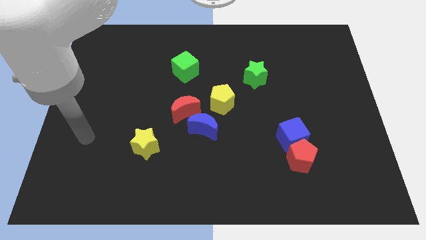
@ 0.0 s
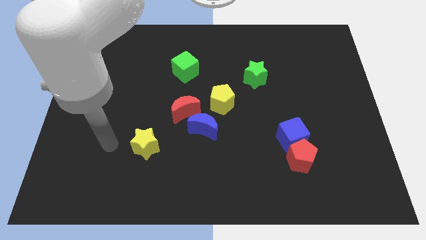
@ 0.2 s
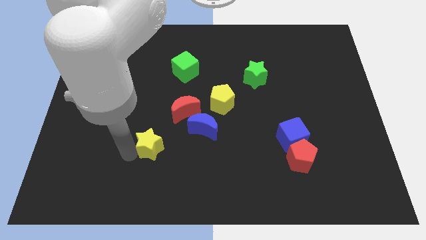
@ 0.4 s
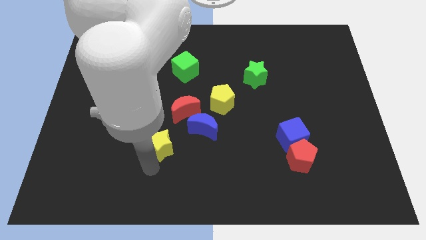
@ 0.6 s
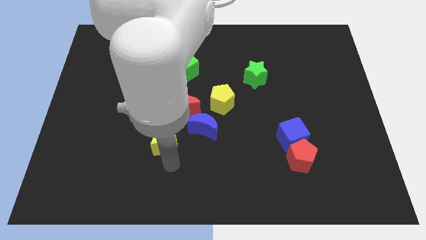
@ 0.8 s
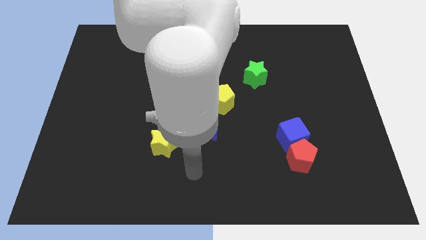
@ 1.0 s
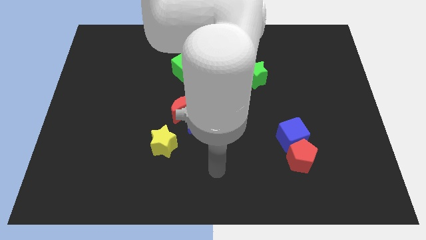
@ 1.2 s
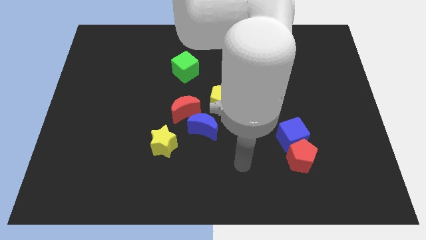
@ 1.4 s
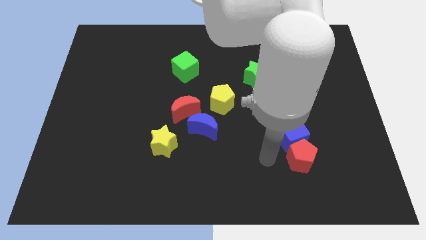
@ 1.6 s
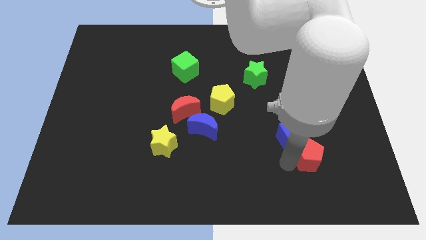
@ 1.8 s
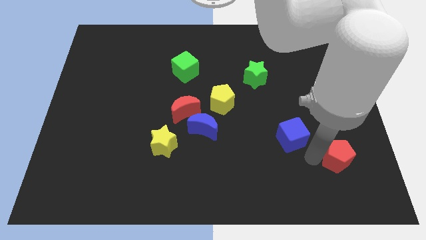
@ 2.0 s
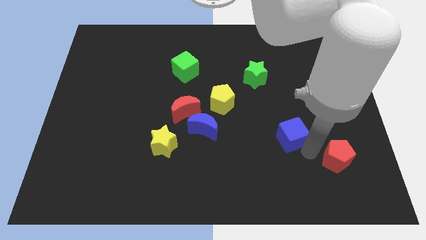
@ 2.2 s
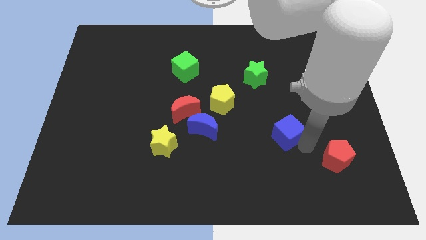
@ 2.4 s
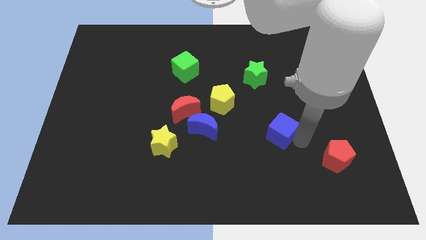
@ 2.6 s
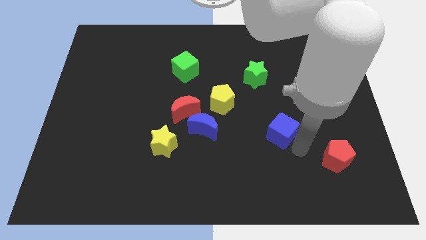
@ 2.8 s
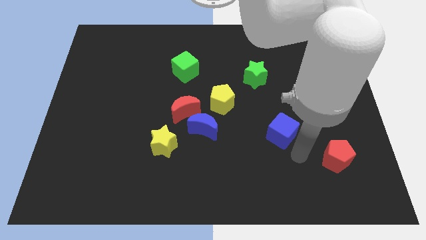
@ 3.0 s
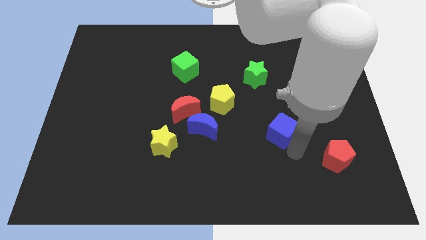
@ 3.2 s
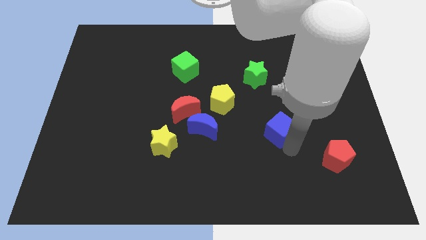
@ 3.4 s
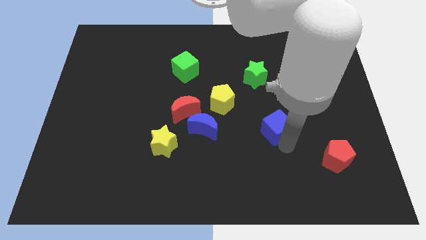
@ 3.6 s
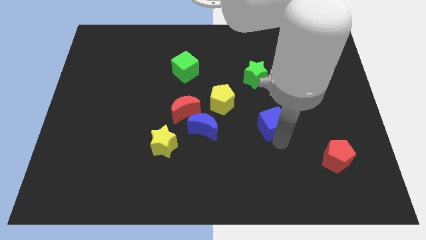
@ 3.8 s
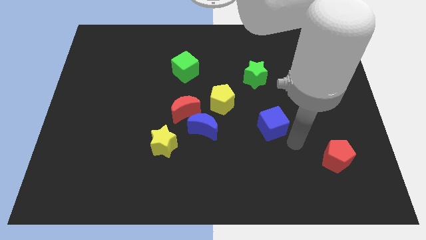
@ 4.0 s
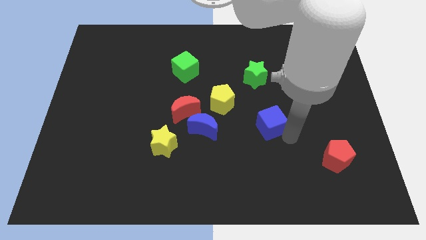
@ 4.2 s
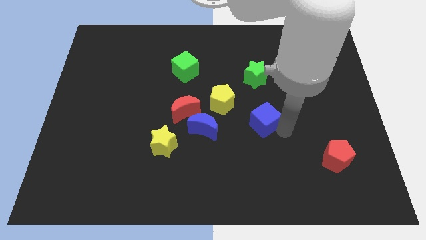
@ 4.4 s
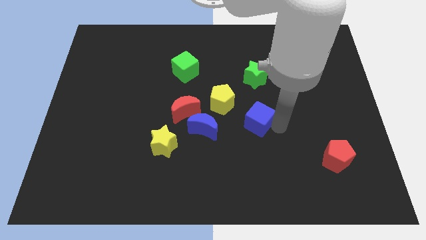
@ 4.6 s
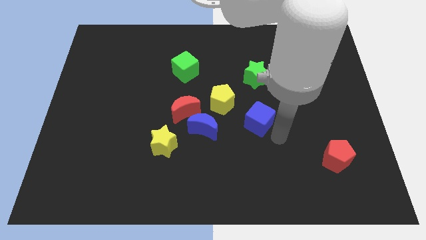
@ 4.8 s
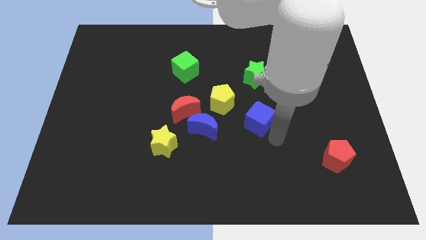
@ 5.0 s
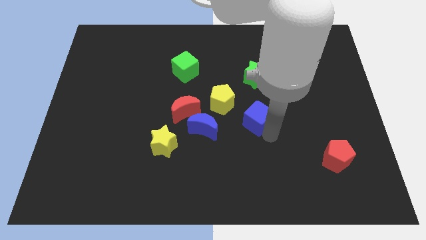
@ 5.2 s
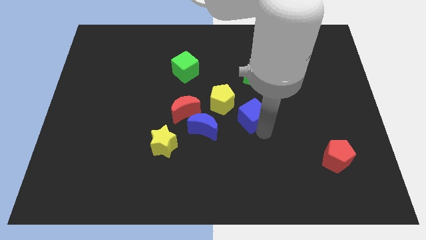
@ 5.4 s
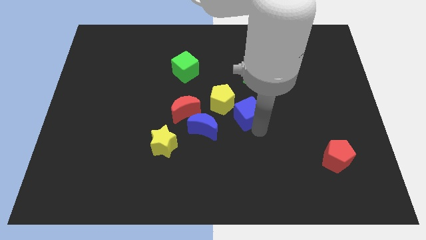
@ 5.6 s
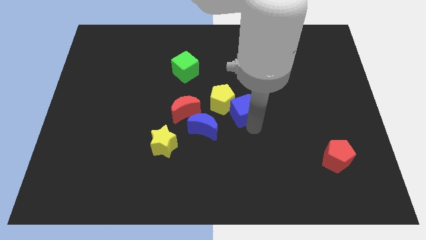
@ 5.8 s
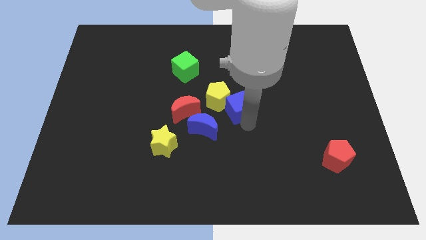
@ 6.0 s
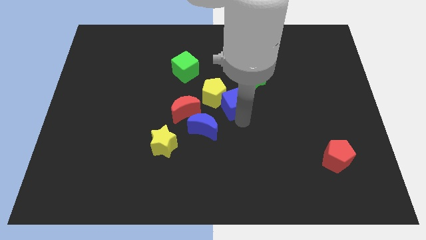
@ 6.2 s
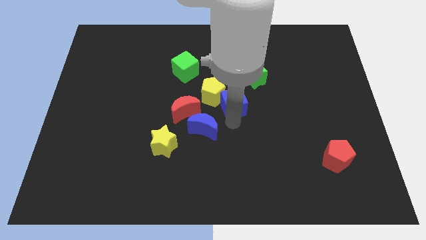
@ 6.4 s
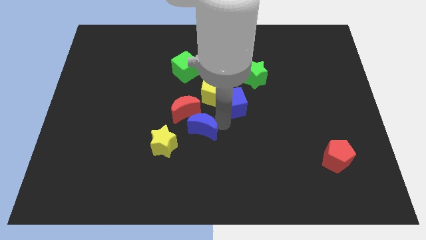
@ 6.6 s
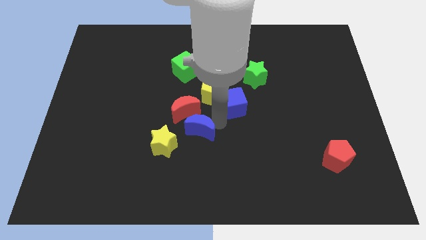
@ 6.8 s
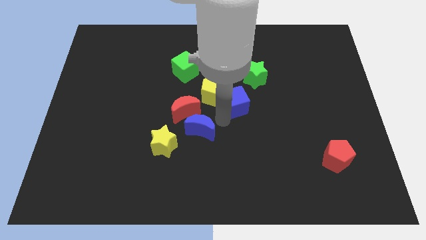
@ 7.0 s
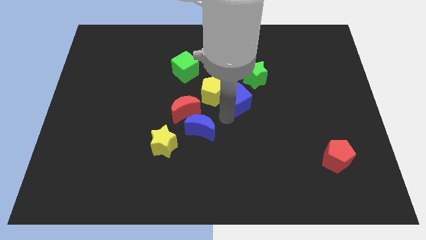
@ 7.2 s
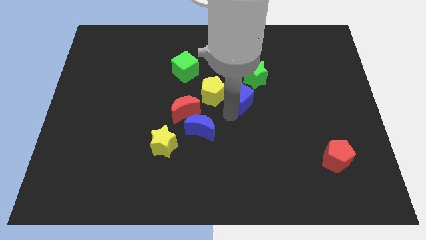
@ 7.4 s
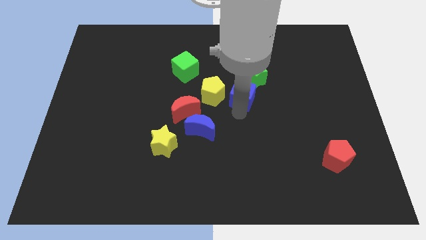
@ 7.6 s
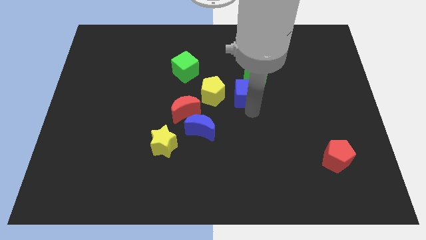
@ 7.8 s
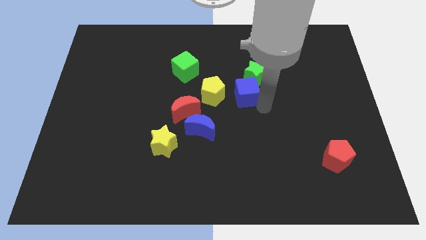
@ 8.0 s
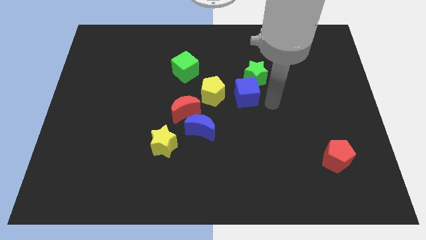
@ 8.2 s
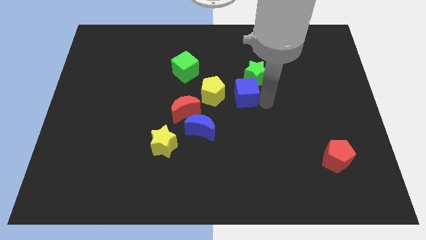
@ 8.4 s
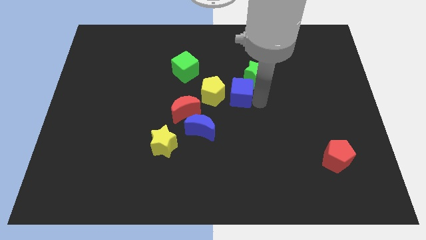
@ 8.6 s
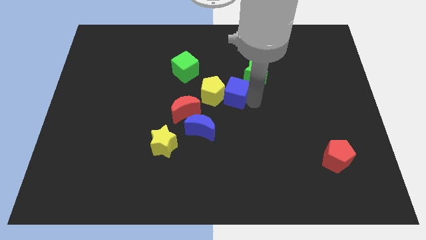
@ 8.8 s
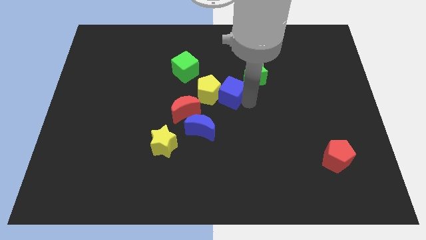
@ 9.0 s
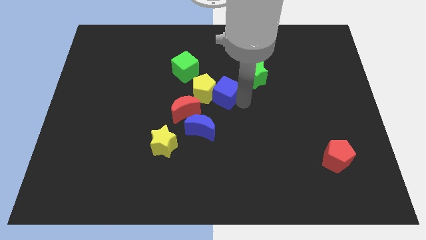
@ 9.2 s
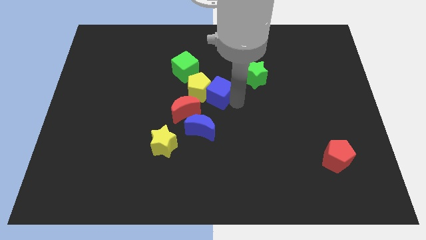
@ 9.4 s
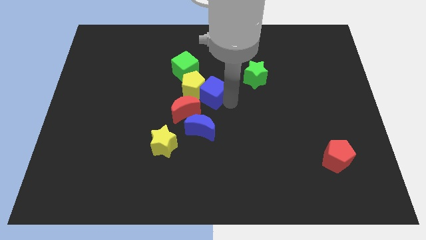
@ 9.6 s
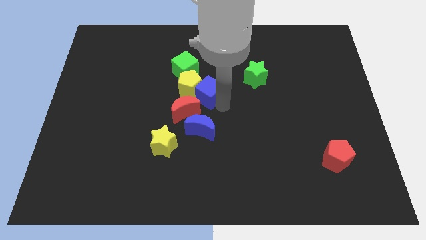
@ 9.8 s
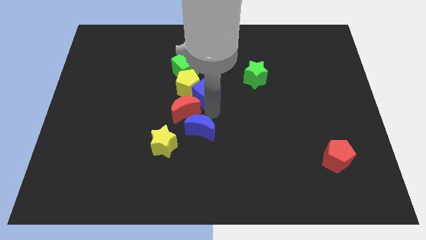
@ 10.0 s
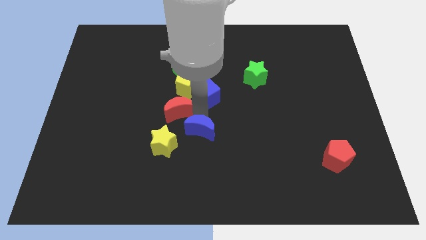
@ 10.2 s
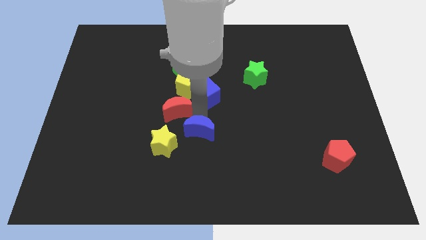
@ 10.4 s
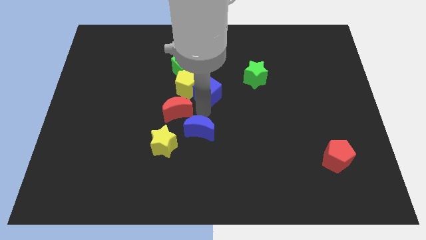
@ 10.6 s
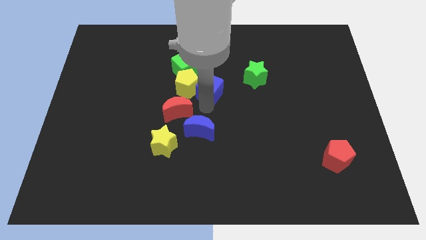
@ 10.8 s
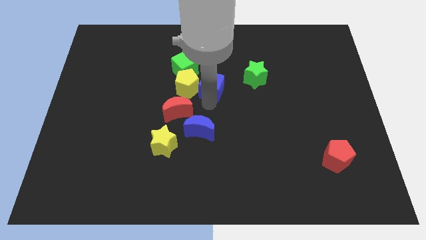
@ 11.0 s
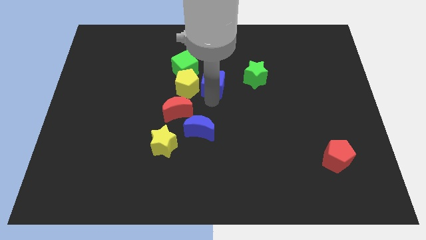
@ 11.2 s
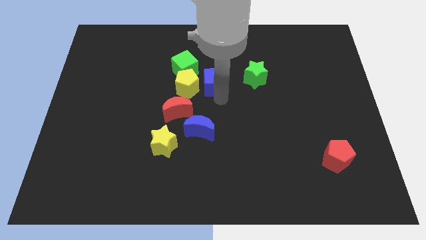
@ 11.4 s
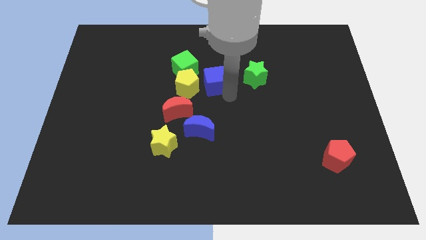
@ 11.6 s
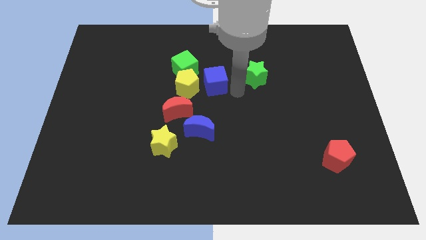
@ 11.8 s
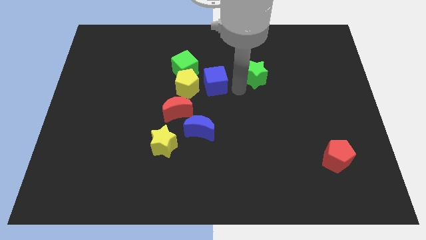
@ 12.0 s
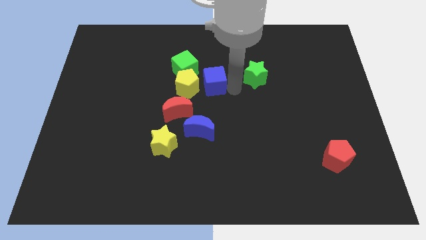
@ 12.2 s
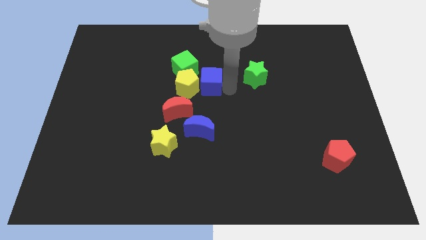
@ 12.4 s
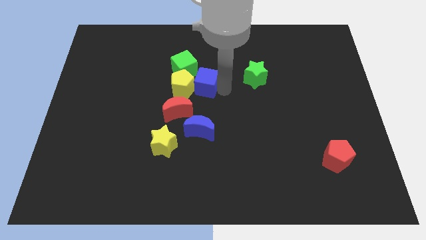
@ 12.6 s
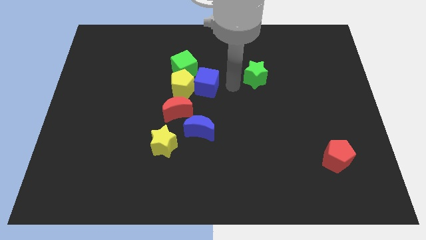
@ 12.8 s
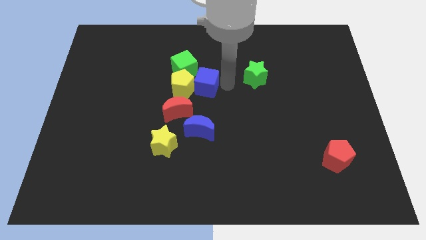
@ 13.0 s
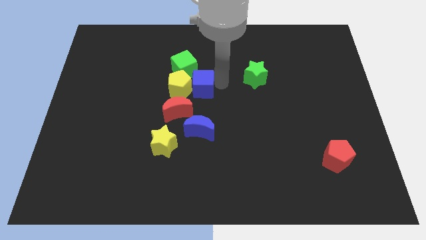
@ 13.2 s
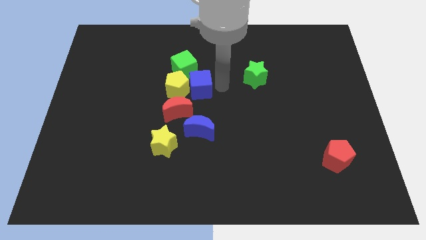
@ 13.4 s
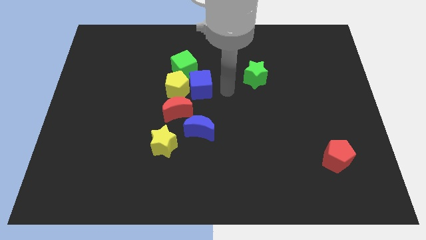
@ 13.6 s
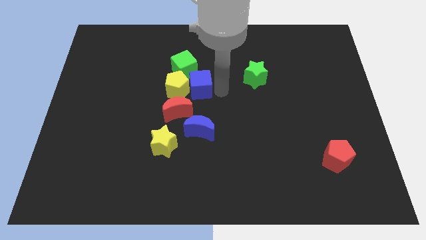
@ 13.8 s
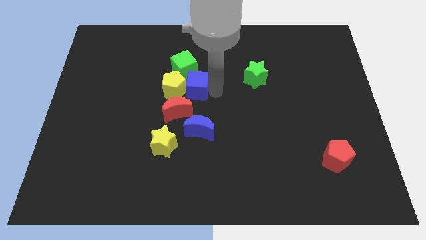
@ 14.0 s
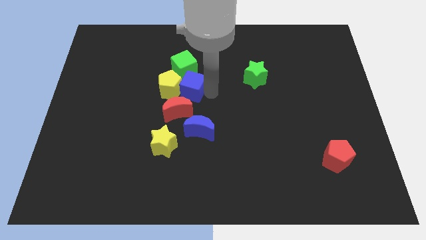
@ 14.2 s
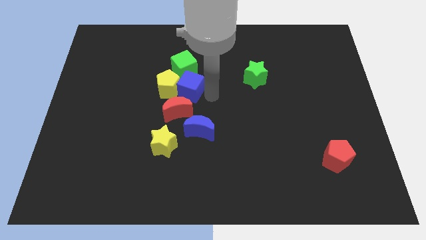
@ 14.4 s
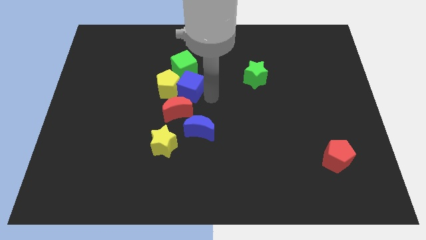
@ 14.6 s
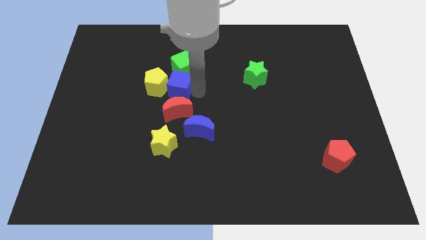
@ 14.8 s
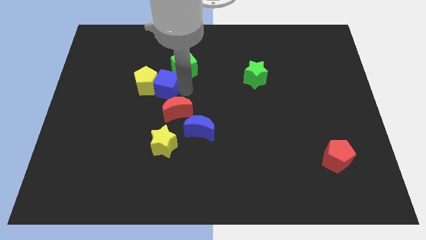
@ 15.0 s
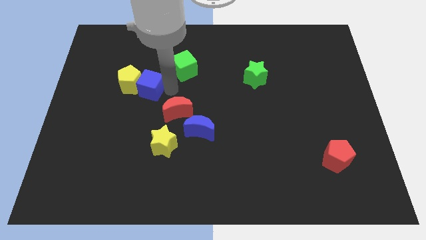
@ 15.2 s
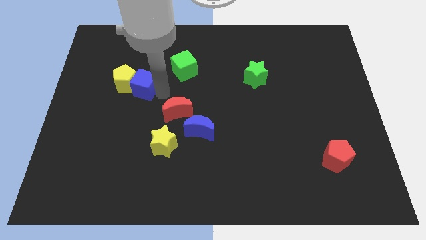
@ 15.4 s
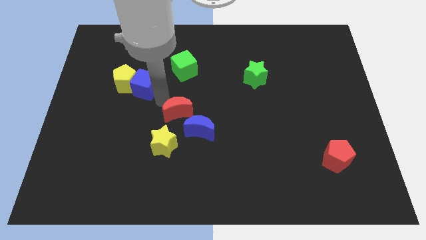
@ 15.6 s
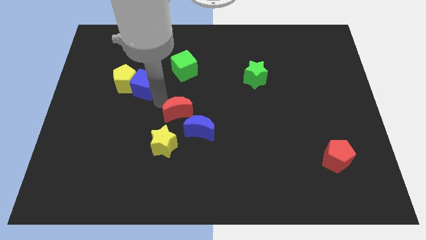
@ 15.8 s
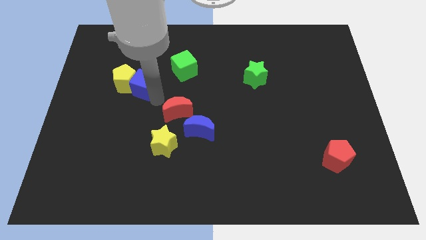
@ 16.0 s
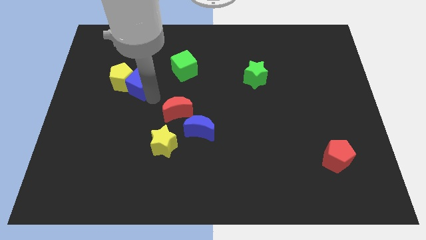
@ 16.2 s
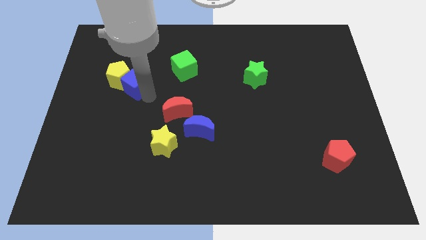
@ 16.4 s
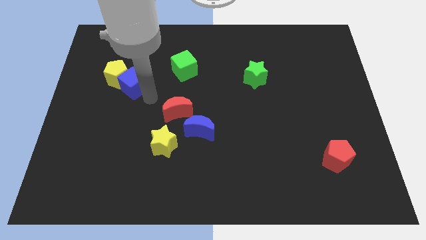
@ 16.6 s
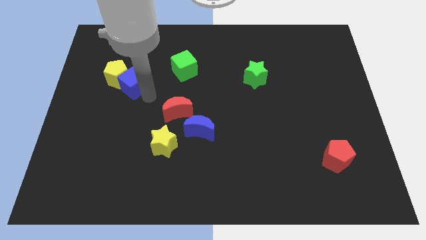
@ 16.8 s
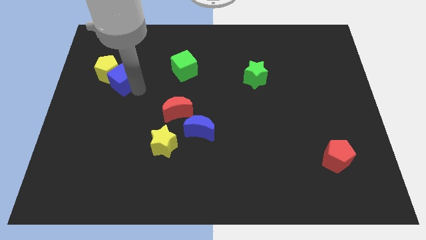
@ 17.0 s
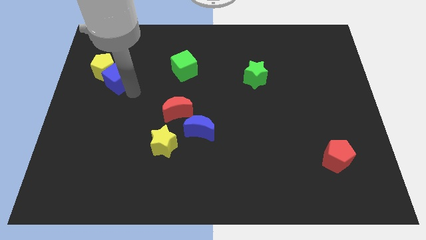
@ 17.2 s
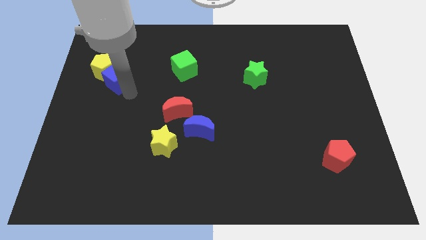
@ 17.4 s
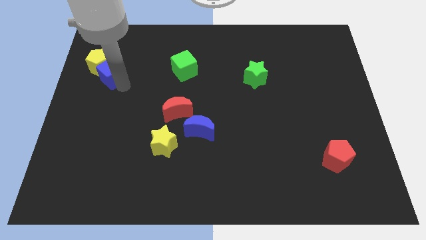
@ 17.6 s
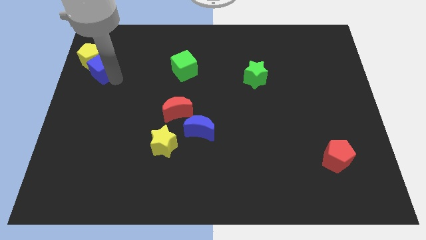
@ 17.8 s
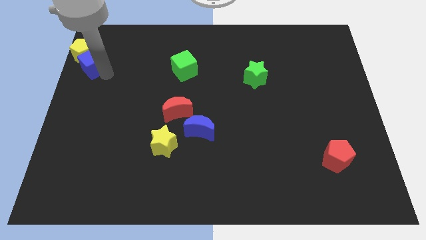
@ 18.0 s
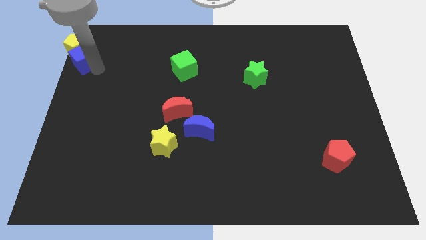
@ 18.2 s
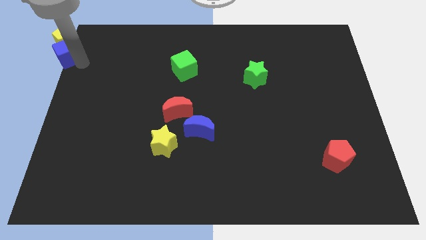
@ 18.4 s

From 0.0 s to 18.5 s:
move the blue cube to the top left corner
